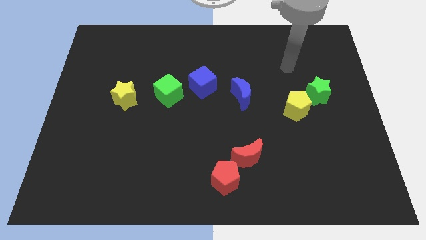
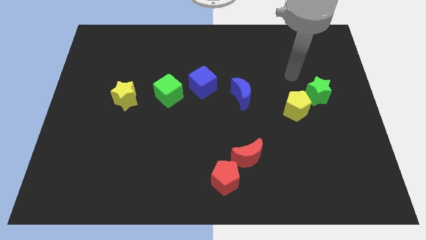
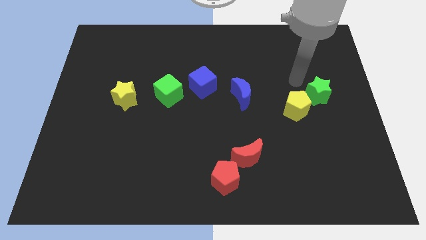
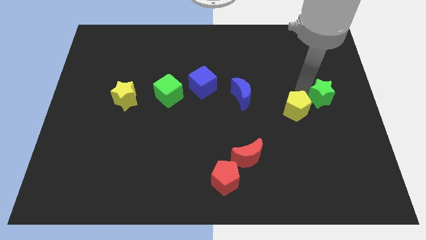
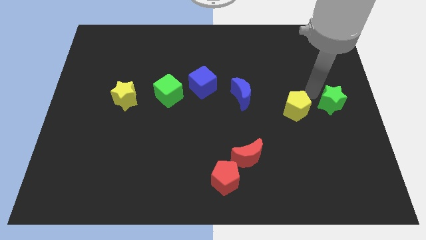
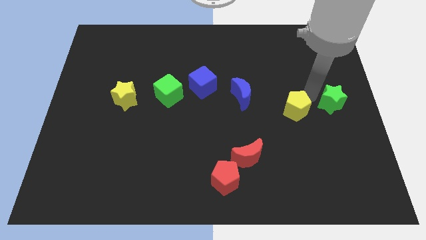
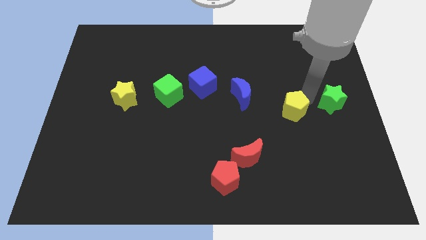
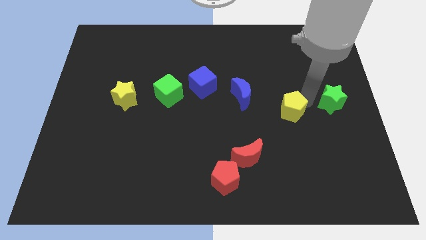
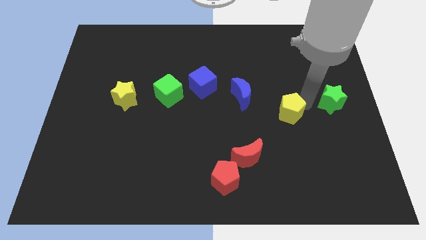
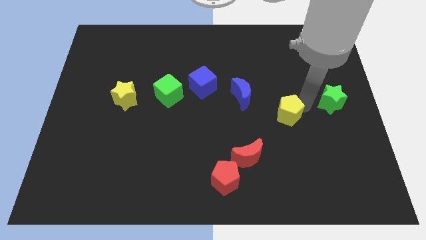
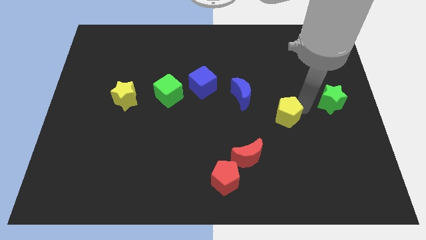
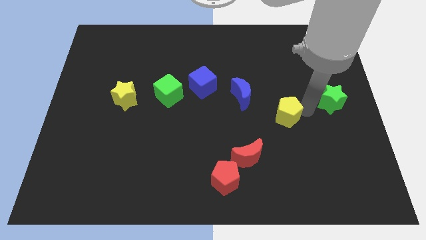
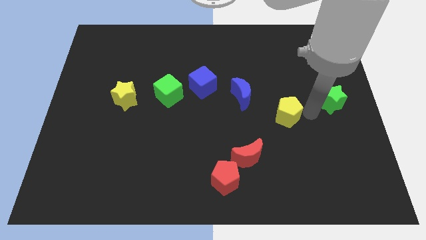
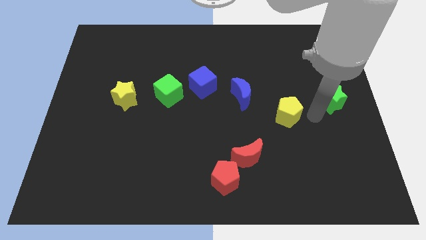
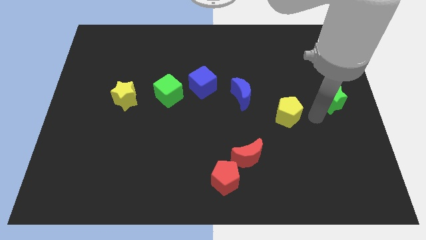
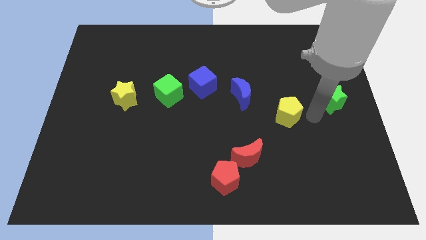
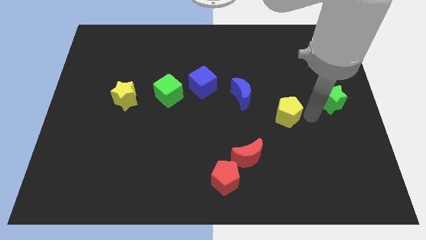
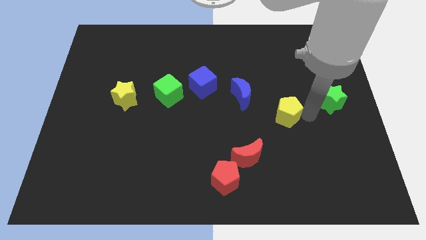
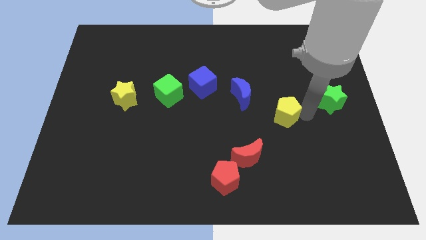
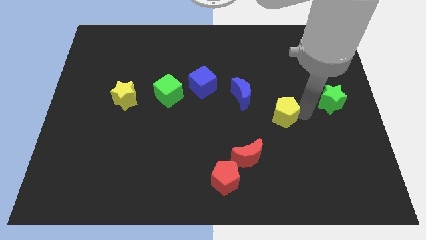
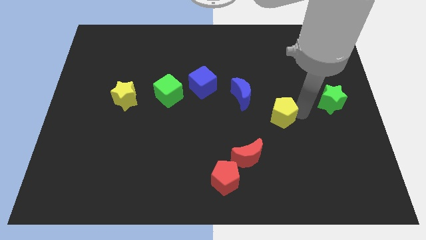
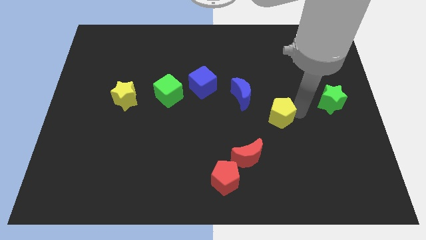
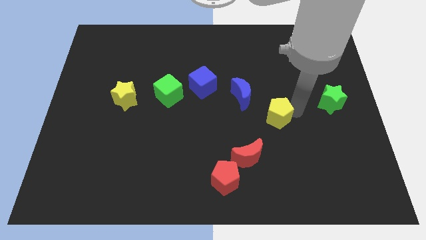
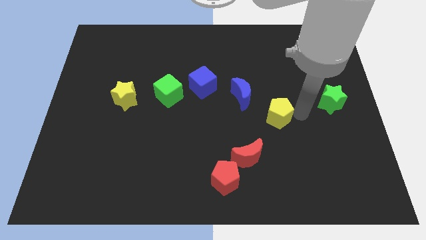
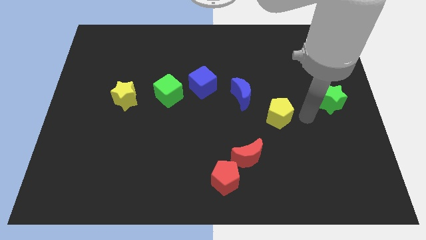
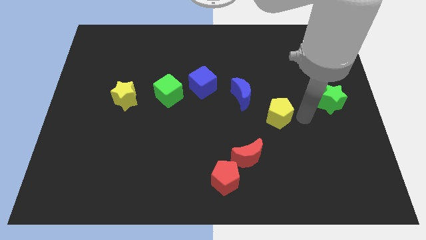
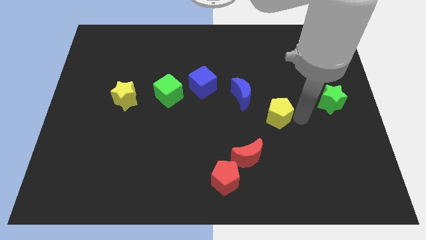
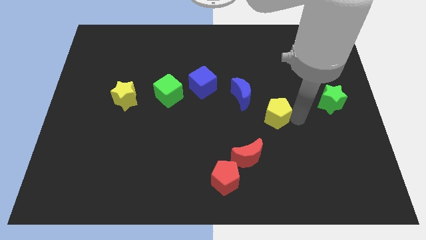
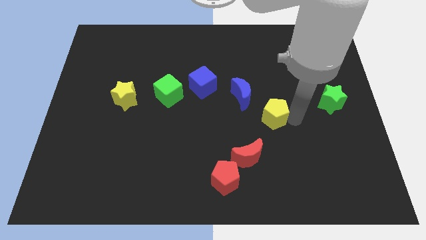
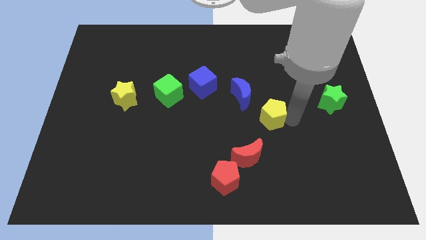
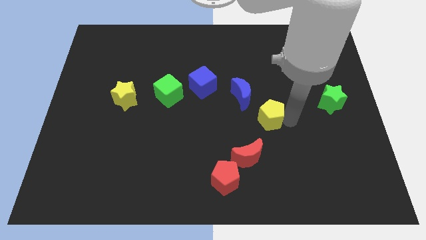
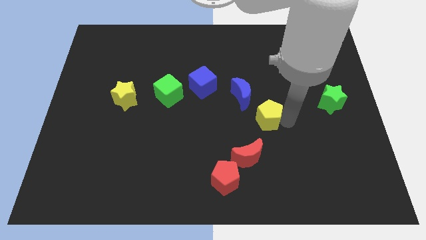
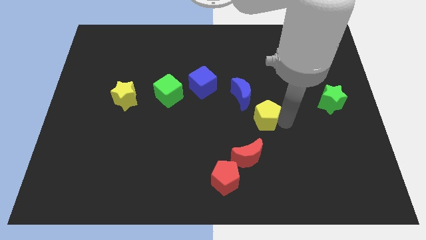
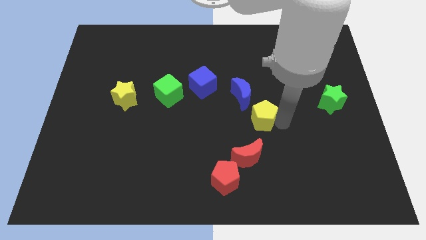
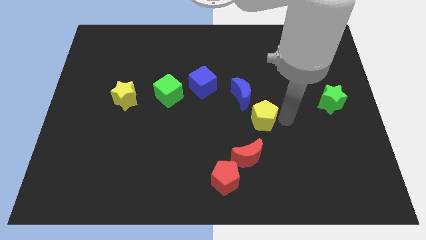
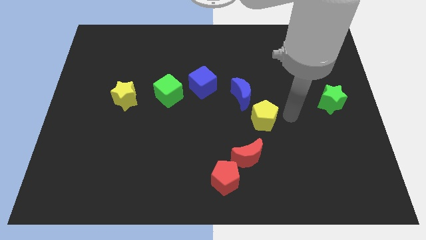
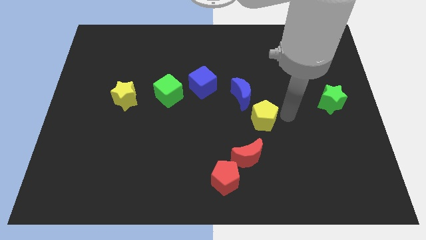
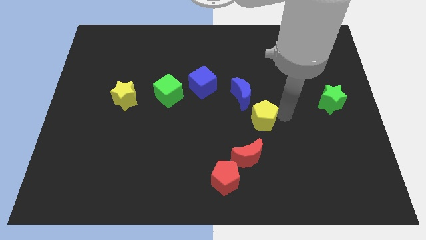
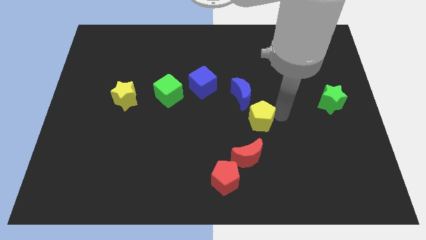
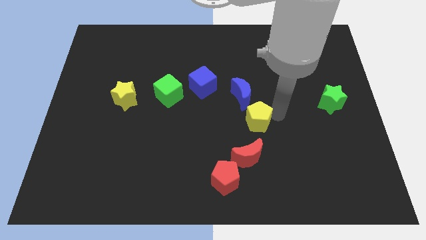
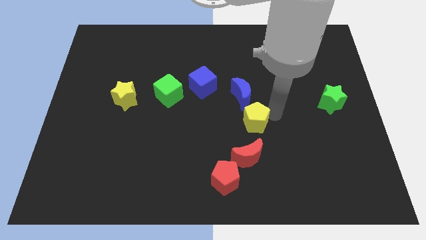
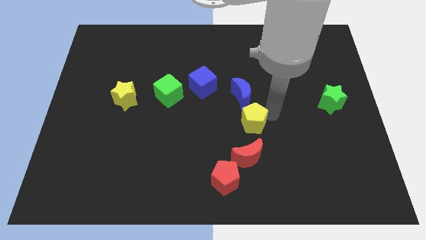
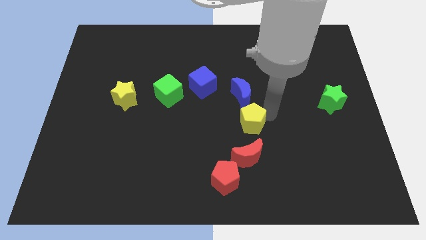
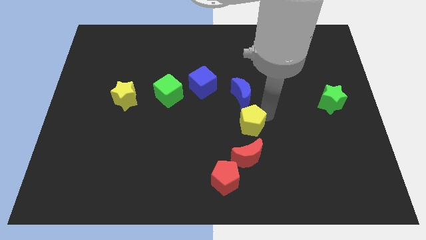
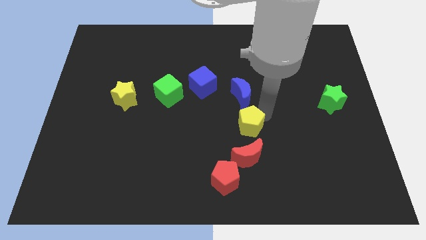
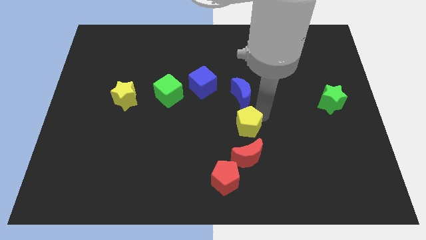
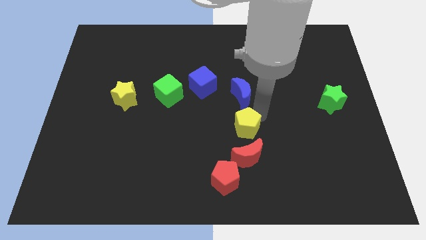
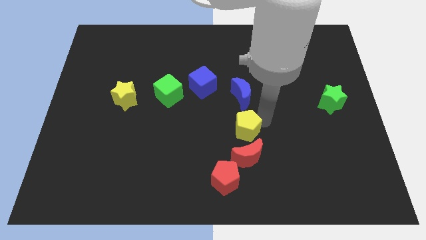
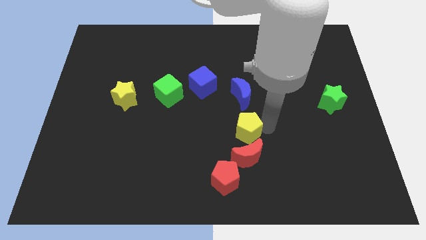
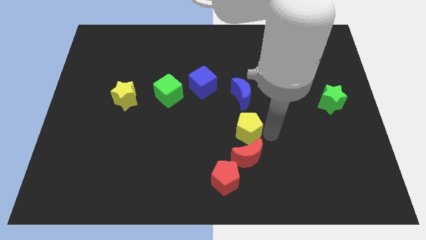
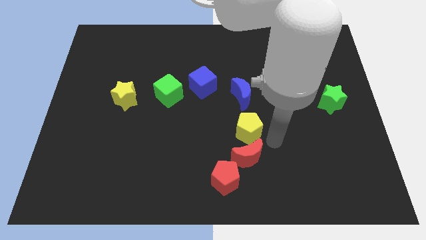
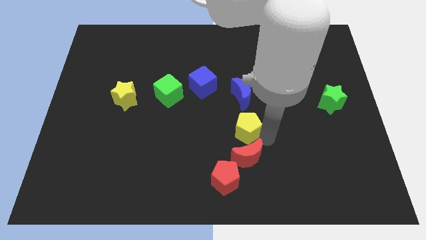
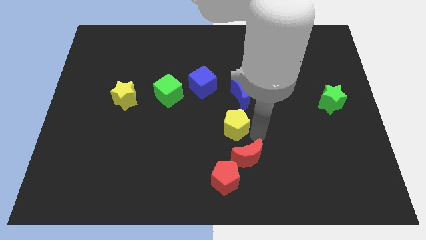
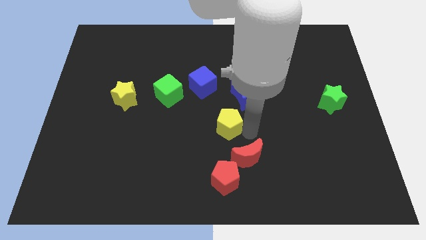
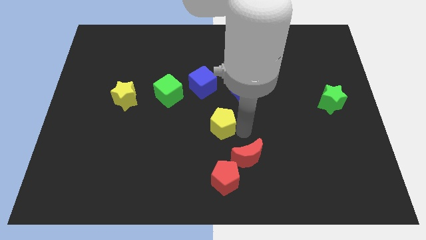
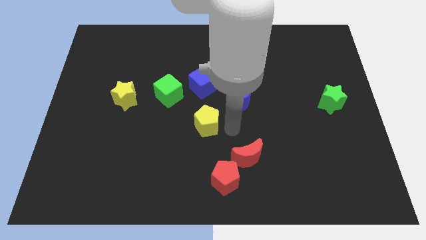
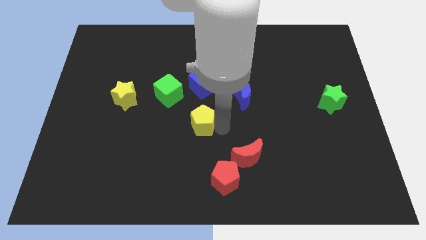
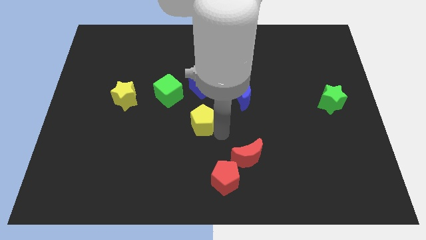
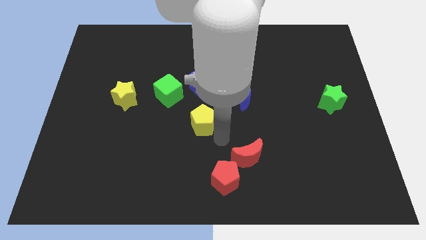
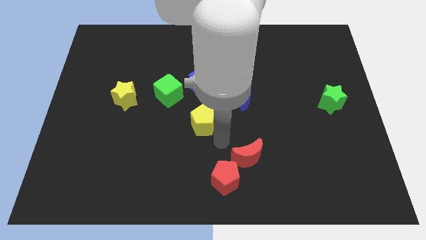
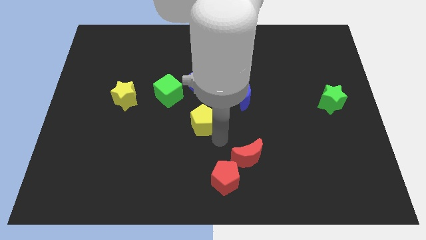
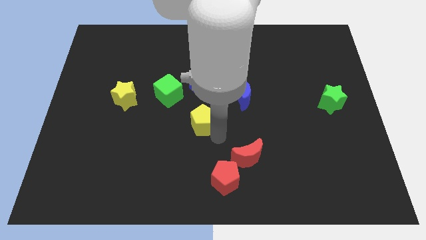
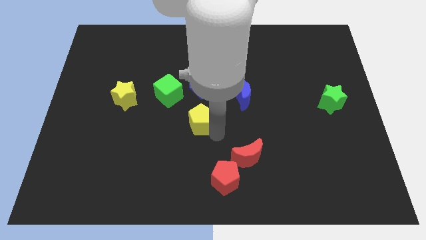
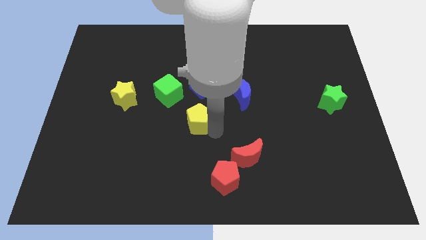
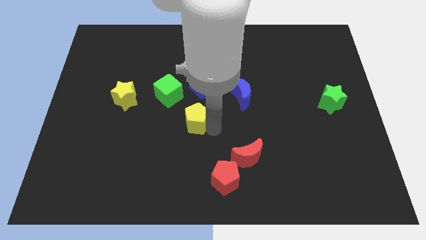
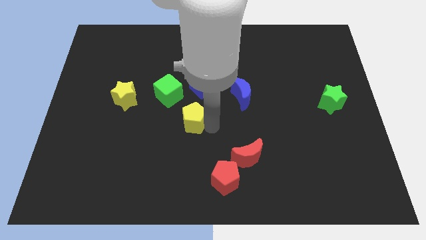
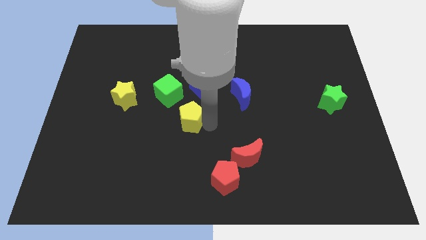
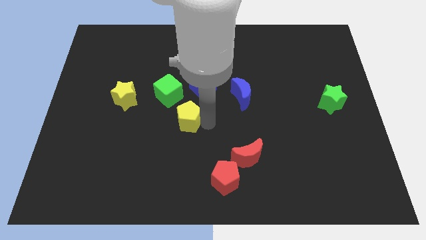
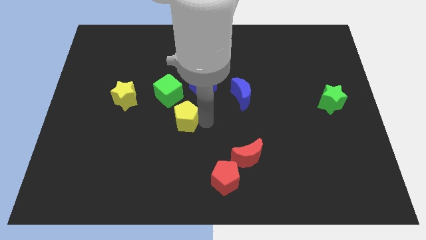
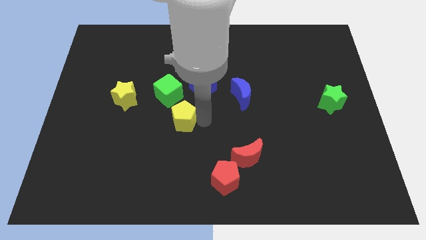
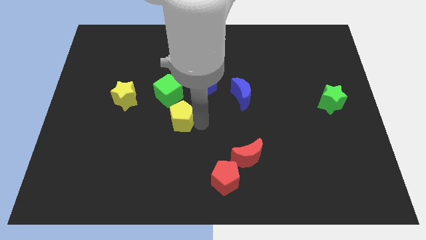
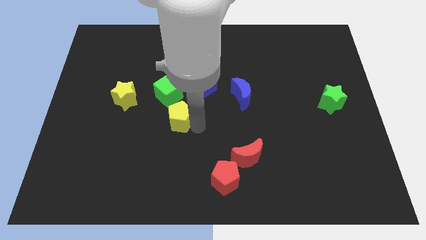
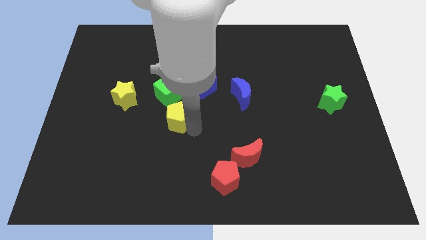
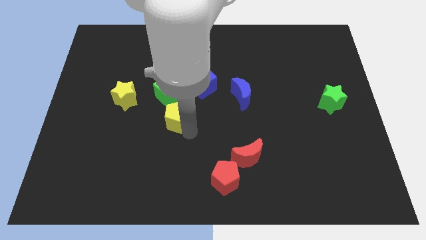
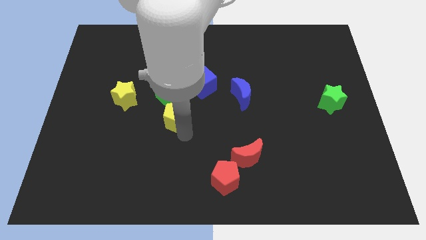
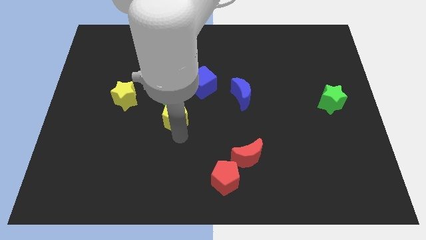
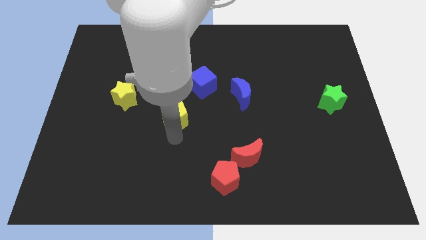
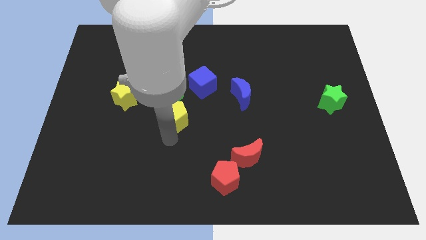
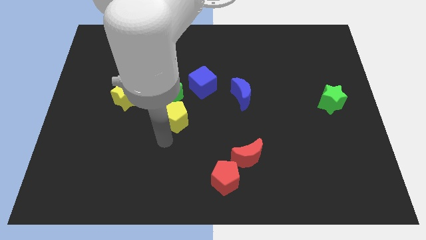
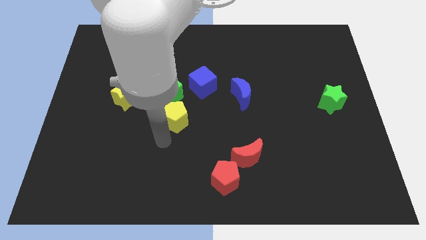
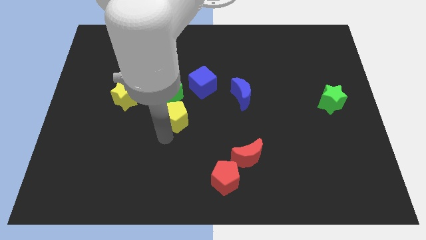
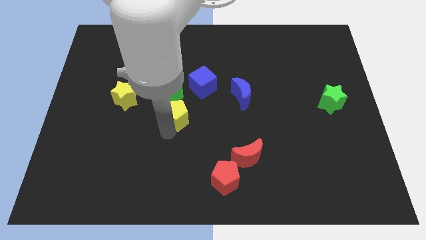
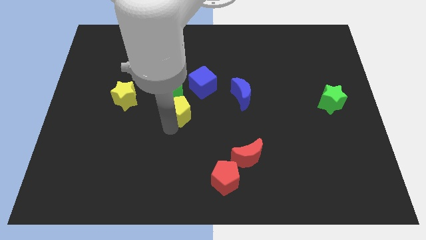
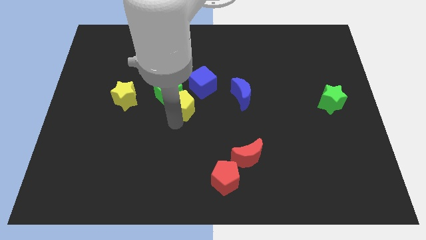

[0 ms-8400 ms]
push the yellow pentagon close to the green cube
